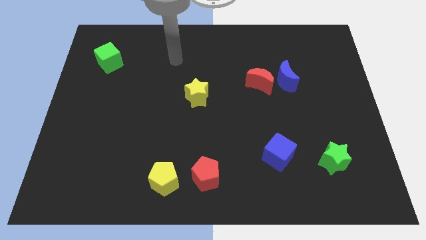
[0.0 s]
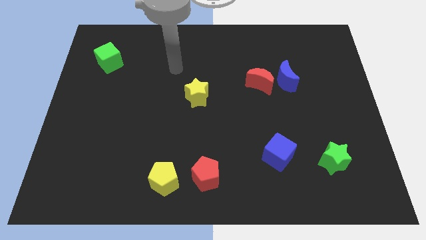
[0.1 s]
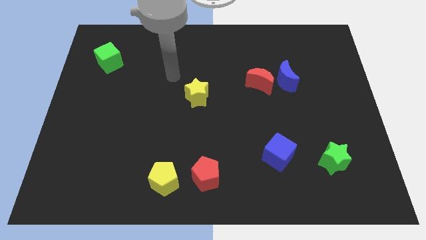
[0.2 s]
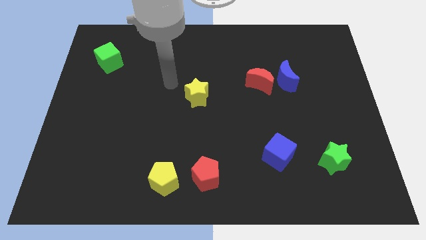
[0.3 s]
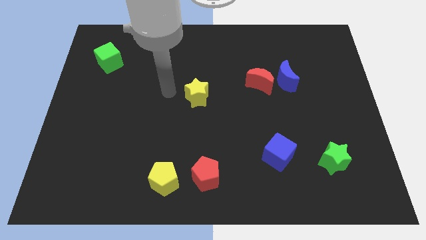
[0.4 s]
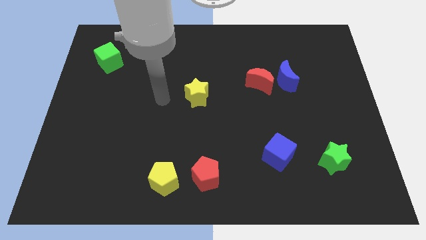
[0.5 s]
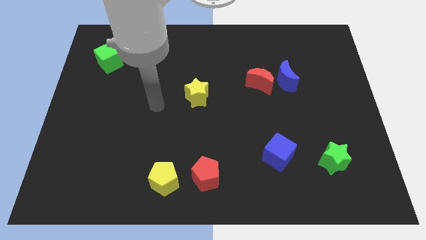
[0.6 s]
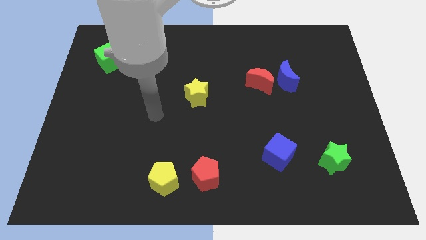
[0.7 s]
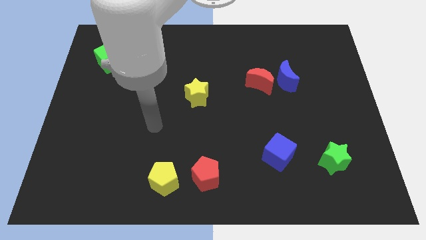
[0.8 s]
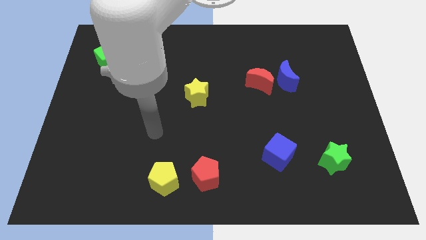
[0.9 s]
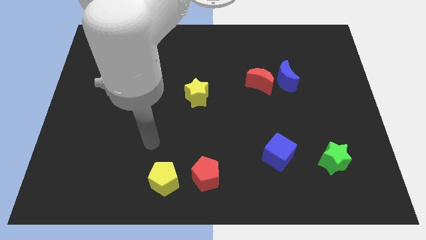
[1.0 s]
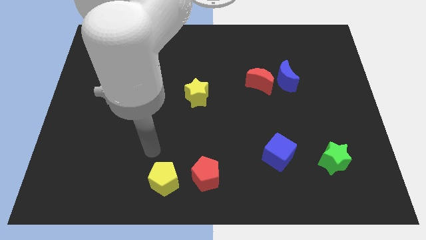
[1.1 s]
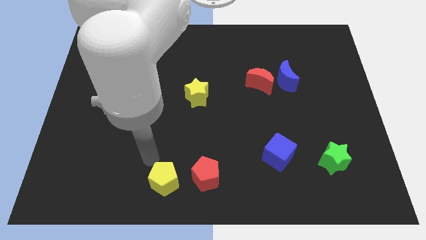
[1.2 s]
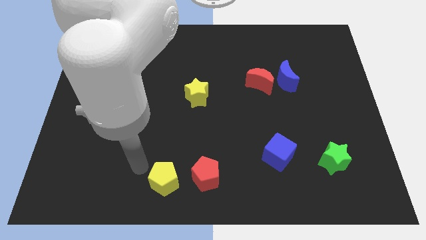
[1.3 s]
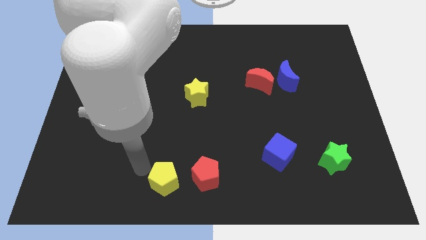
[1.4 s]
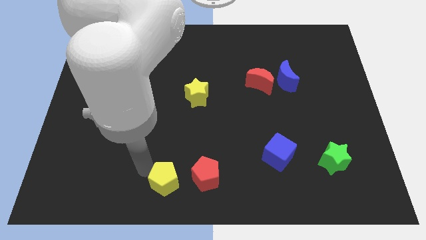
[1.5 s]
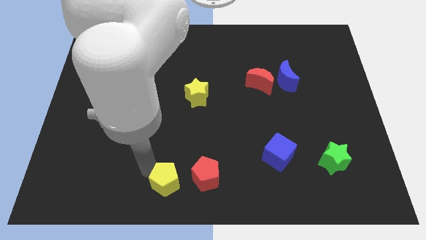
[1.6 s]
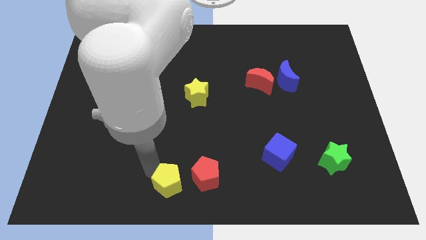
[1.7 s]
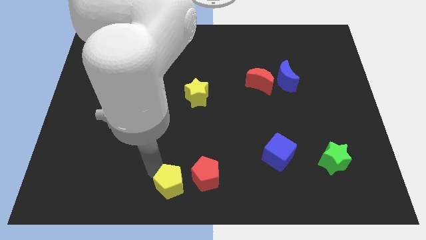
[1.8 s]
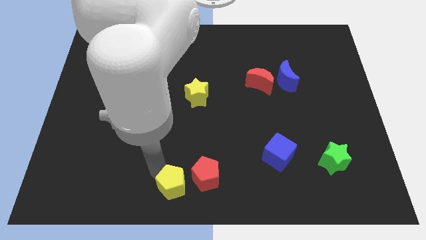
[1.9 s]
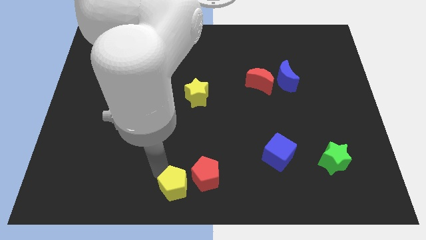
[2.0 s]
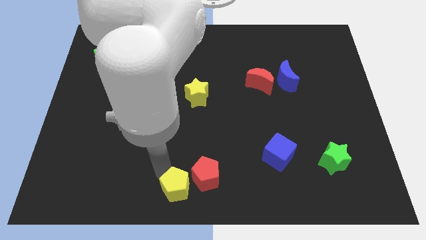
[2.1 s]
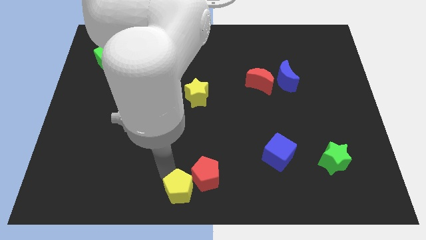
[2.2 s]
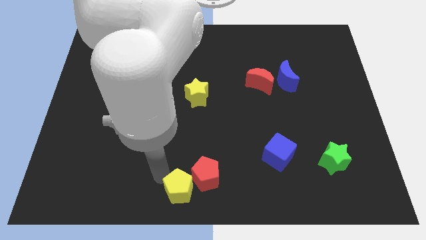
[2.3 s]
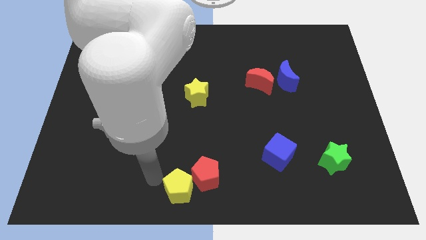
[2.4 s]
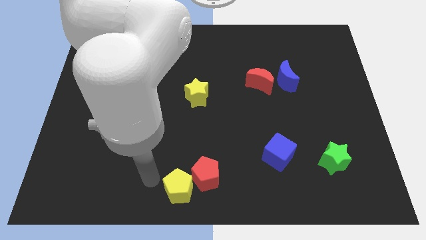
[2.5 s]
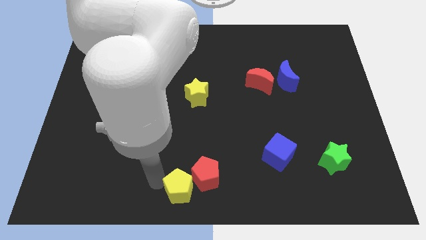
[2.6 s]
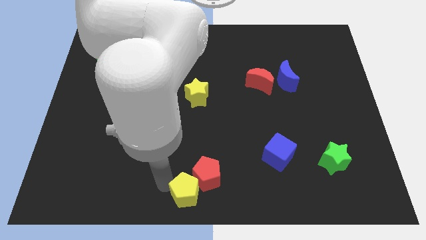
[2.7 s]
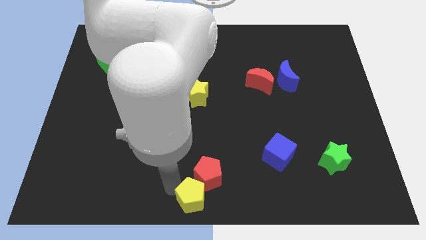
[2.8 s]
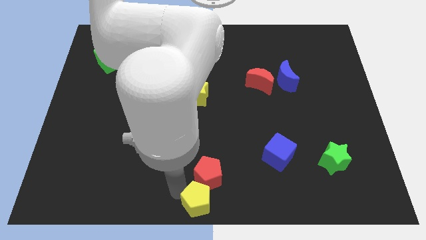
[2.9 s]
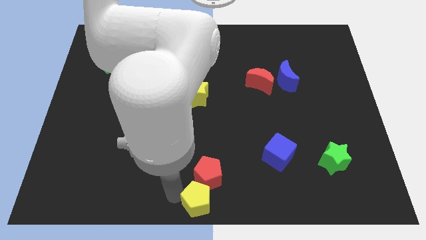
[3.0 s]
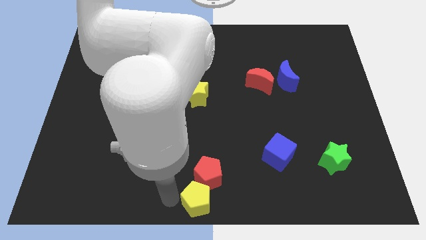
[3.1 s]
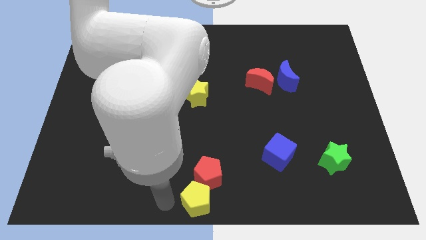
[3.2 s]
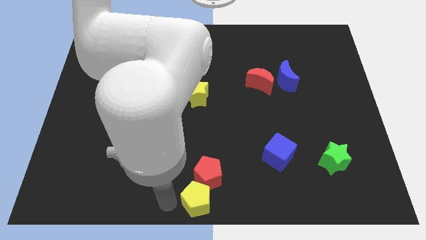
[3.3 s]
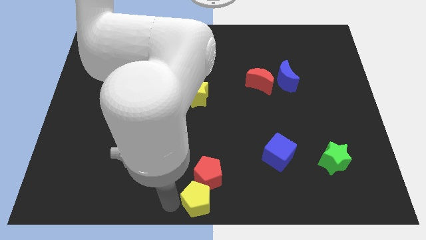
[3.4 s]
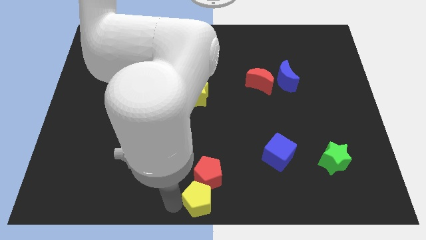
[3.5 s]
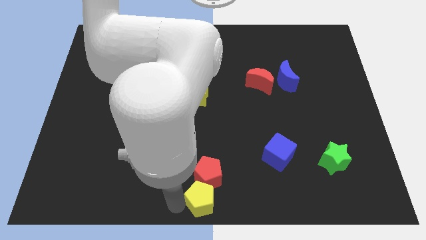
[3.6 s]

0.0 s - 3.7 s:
move the yellow pentagon right slightly

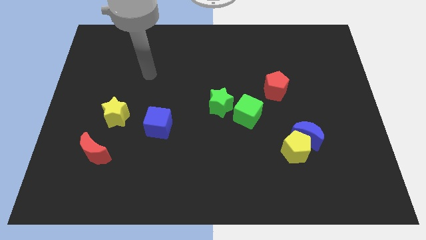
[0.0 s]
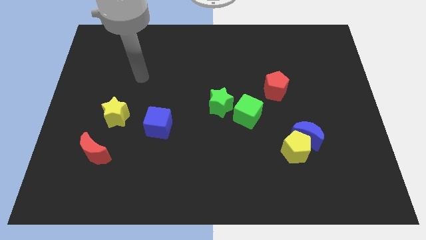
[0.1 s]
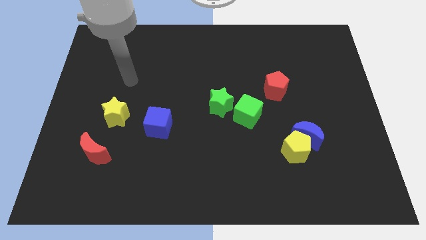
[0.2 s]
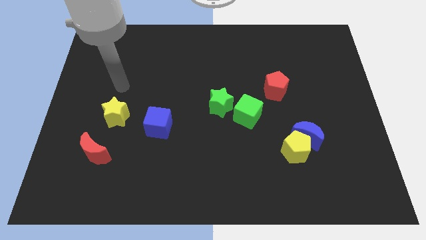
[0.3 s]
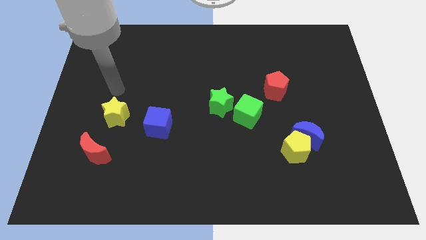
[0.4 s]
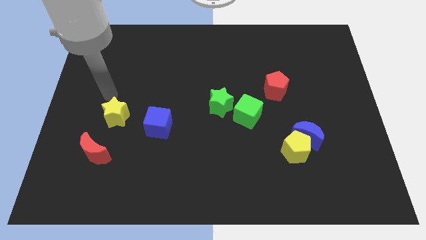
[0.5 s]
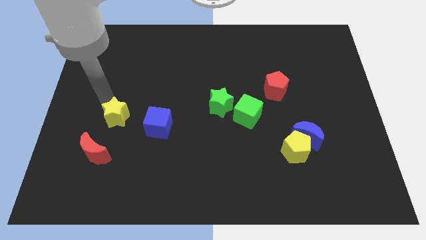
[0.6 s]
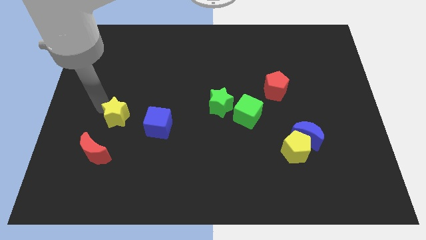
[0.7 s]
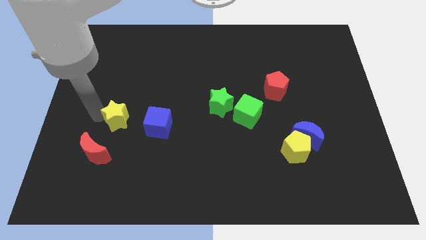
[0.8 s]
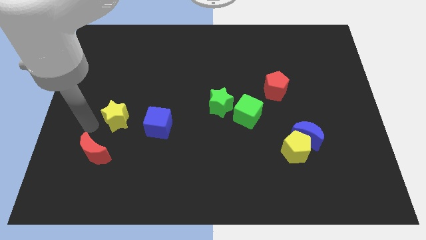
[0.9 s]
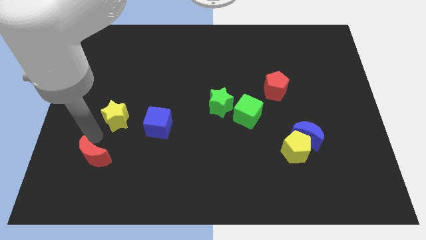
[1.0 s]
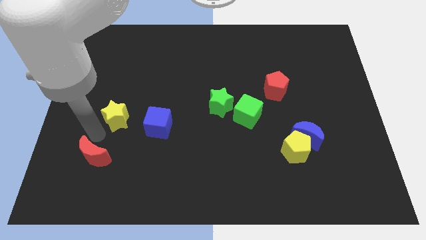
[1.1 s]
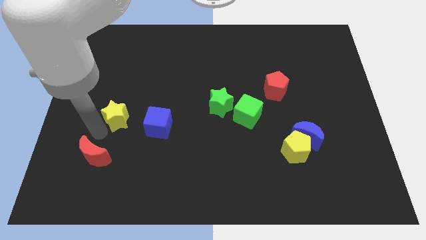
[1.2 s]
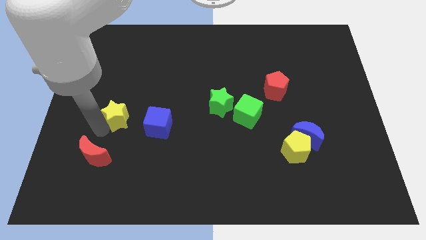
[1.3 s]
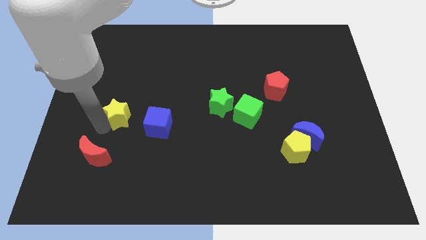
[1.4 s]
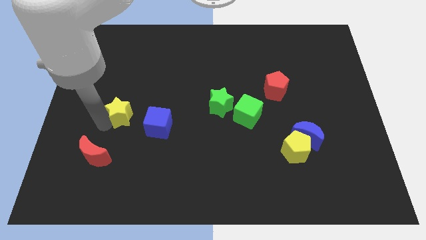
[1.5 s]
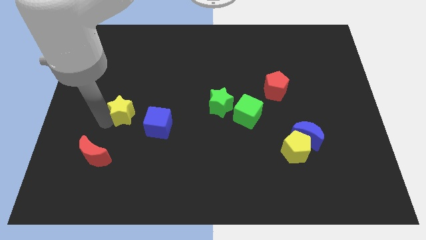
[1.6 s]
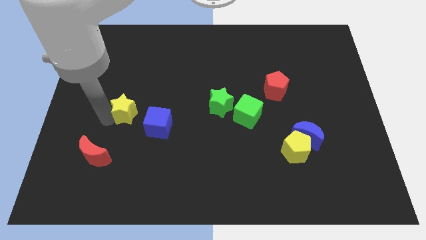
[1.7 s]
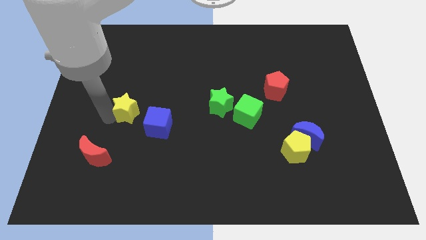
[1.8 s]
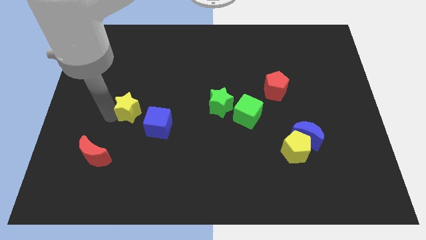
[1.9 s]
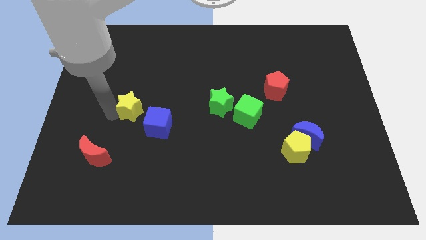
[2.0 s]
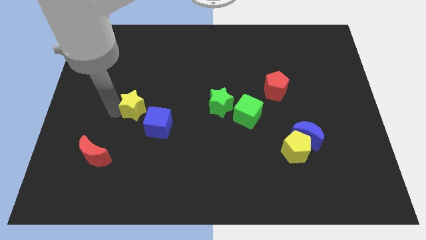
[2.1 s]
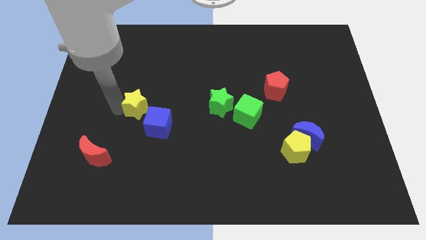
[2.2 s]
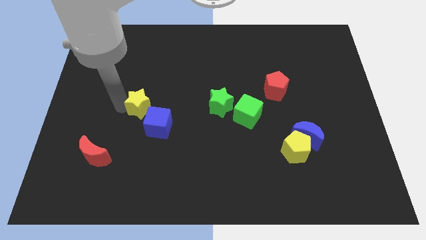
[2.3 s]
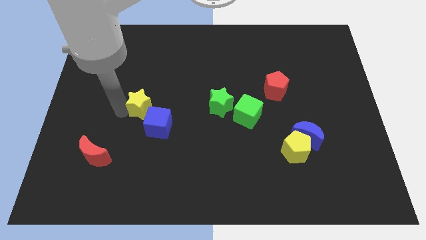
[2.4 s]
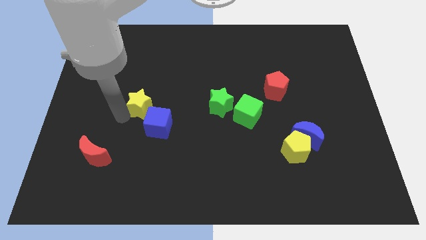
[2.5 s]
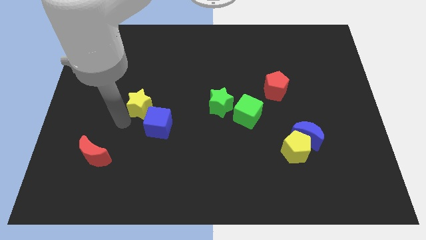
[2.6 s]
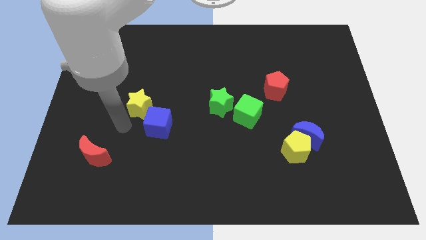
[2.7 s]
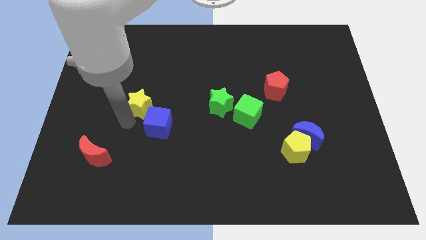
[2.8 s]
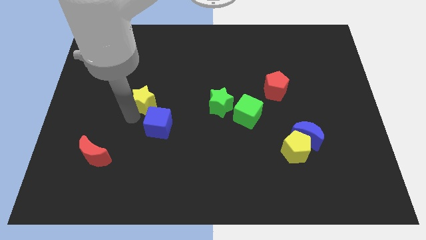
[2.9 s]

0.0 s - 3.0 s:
slightly slide the yellow star diagonally upwards and right

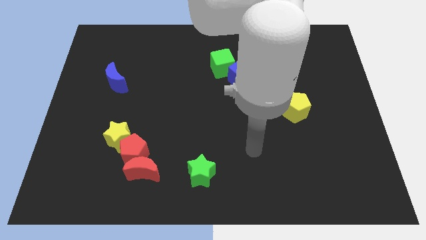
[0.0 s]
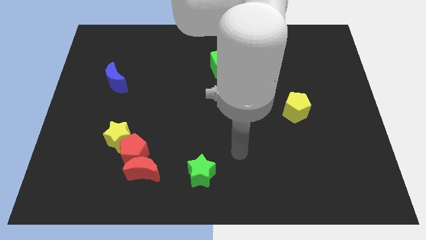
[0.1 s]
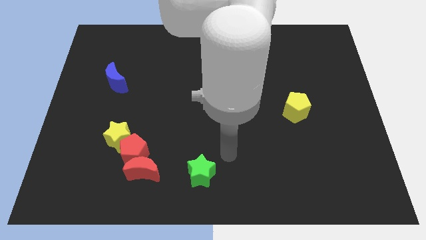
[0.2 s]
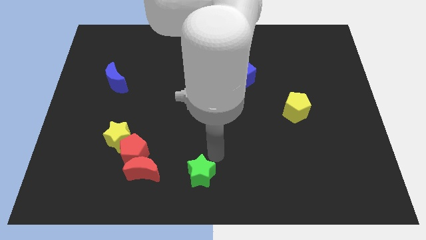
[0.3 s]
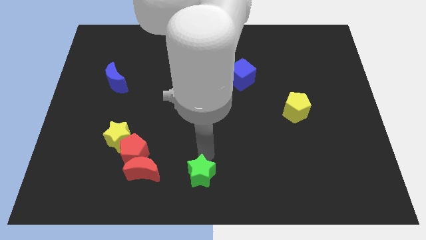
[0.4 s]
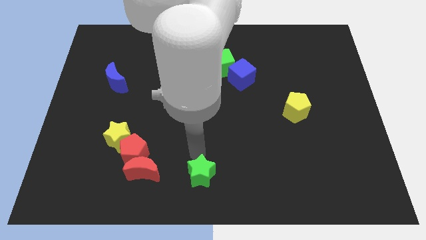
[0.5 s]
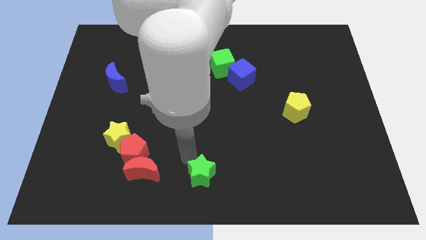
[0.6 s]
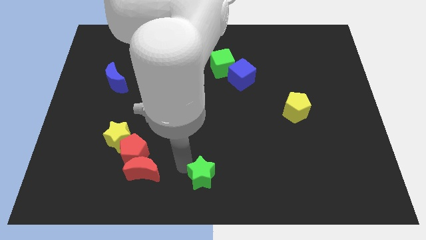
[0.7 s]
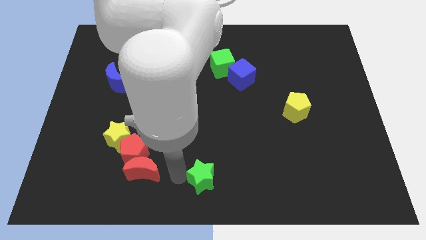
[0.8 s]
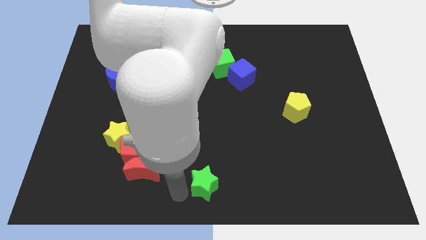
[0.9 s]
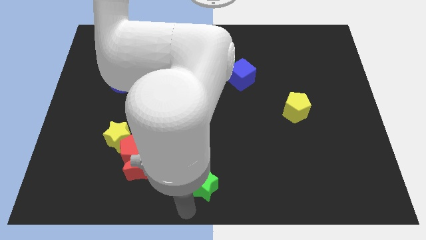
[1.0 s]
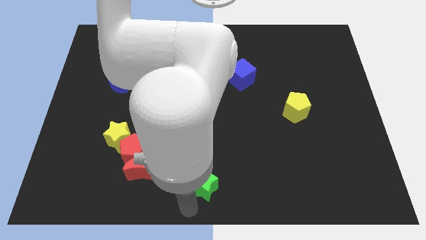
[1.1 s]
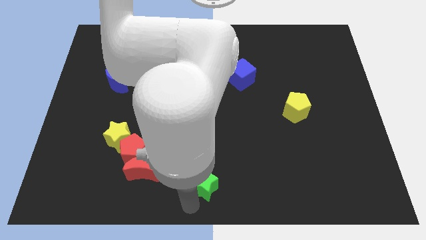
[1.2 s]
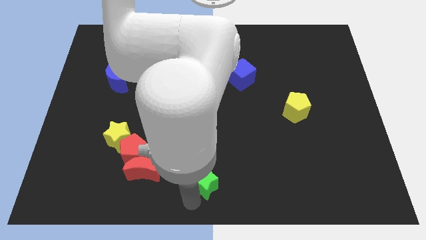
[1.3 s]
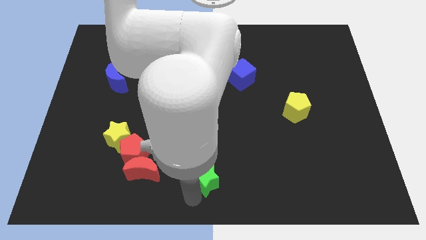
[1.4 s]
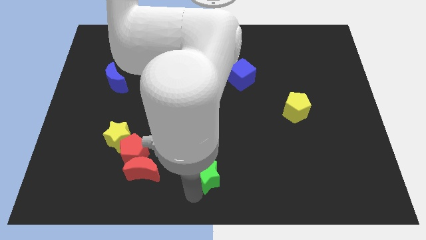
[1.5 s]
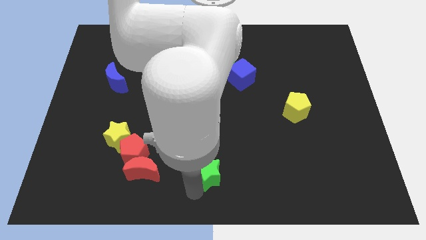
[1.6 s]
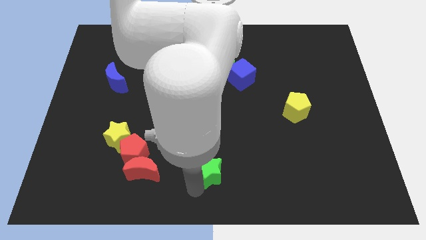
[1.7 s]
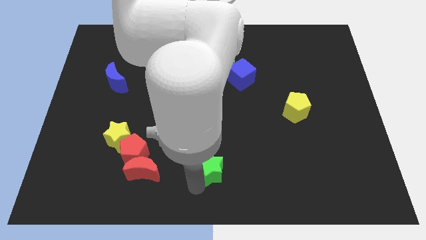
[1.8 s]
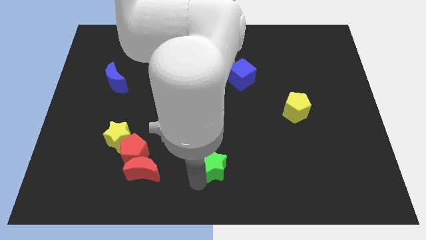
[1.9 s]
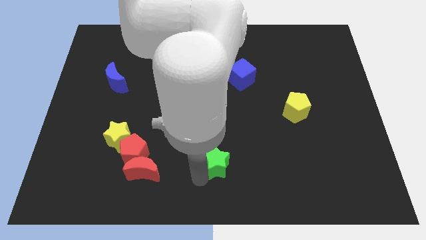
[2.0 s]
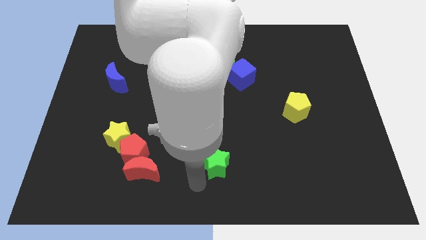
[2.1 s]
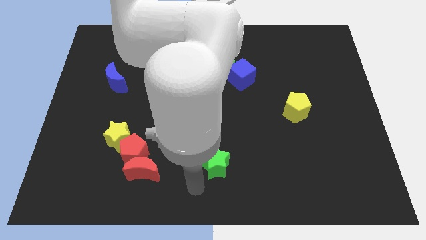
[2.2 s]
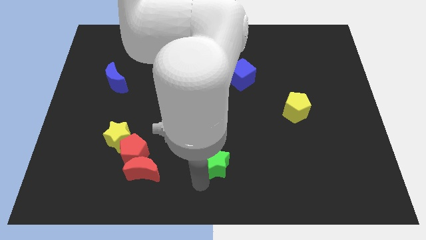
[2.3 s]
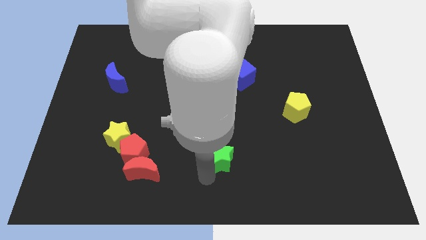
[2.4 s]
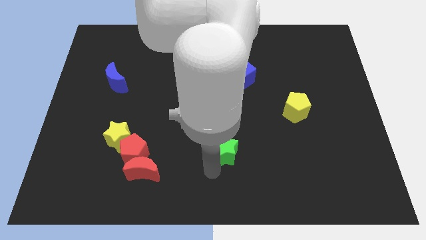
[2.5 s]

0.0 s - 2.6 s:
slightly move the green star upwards and then to the right
